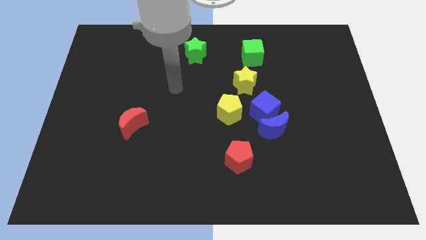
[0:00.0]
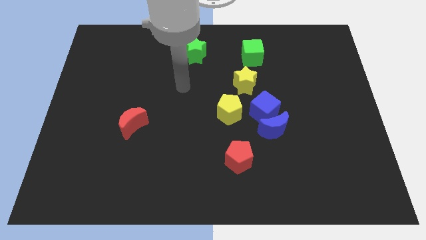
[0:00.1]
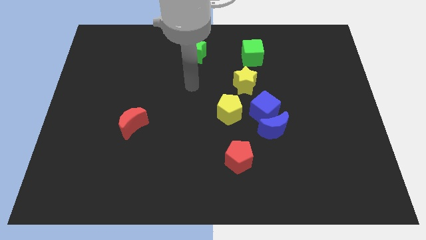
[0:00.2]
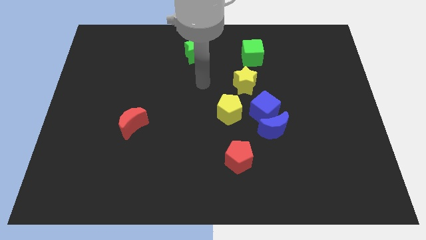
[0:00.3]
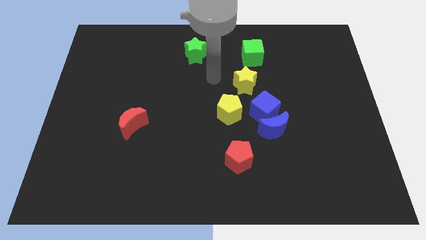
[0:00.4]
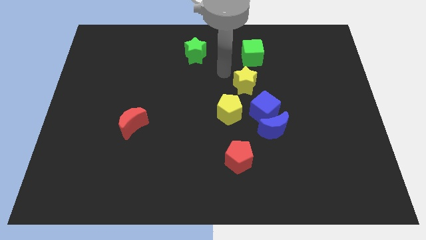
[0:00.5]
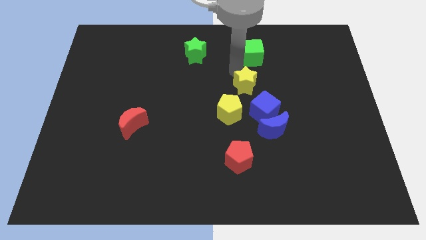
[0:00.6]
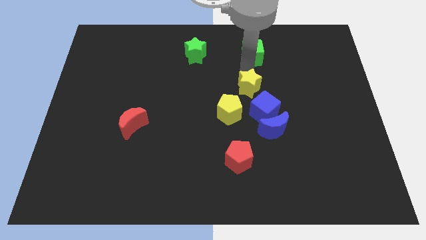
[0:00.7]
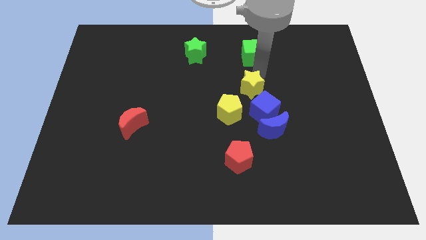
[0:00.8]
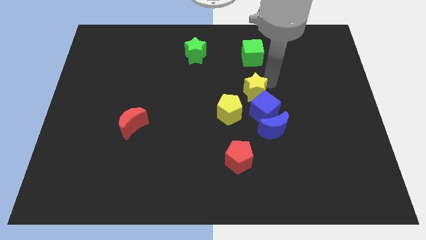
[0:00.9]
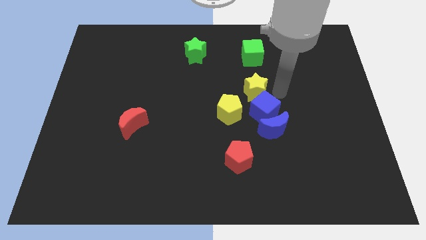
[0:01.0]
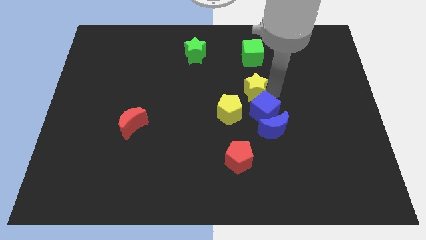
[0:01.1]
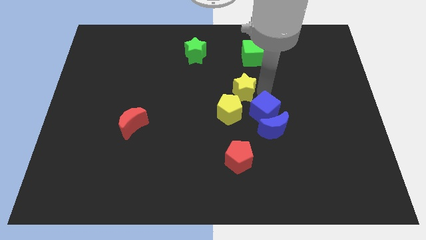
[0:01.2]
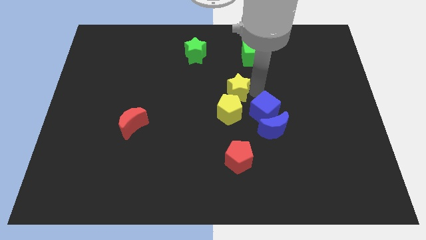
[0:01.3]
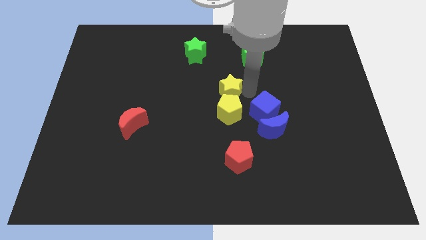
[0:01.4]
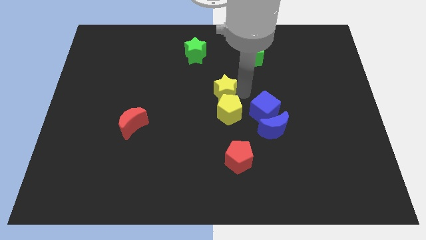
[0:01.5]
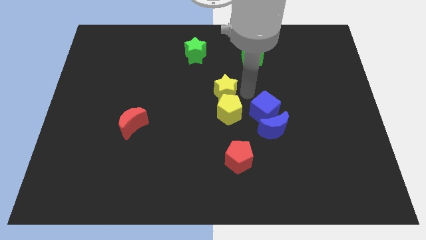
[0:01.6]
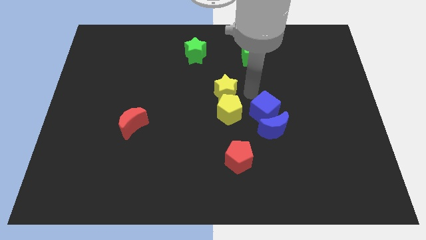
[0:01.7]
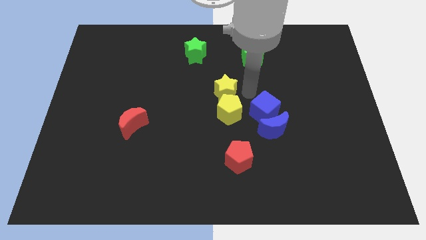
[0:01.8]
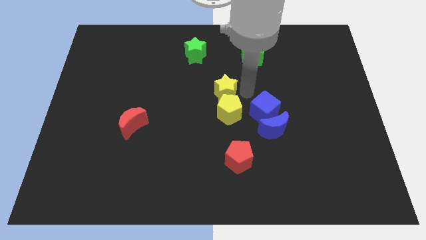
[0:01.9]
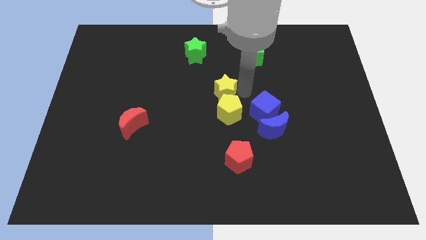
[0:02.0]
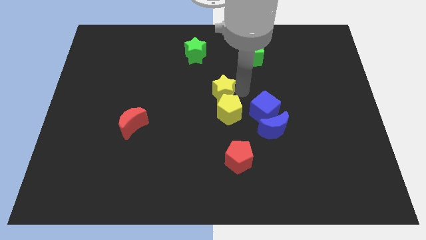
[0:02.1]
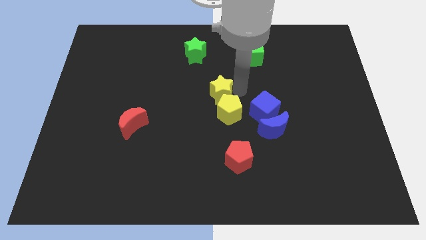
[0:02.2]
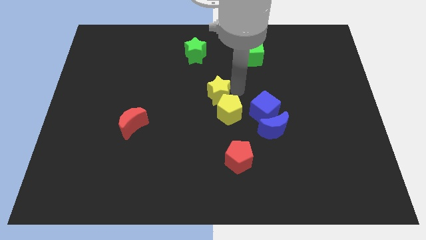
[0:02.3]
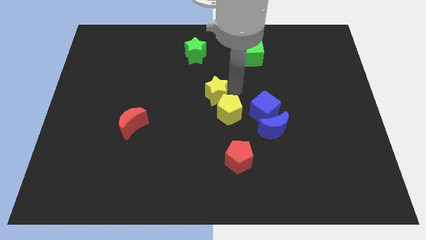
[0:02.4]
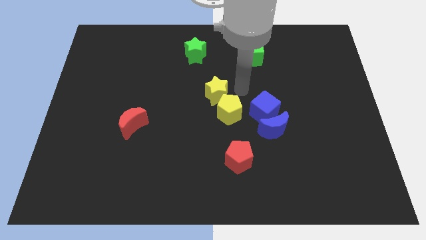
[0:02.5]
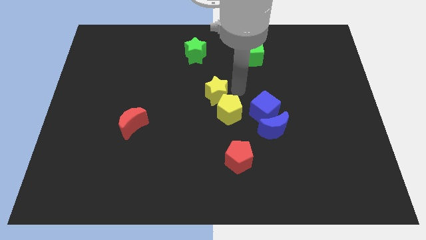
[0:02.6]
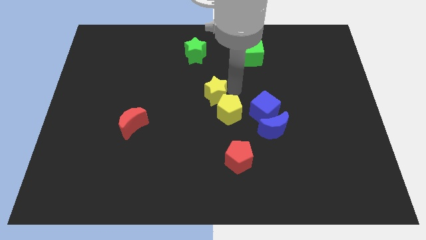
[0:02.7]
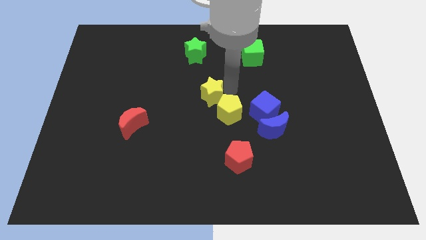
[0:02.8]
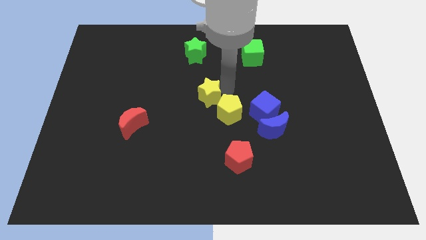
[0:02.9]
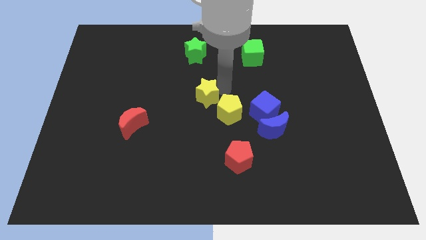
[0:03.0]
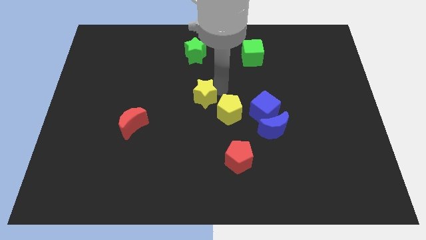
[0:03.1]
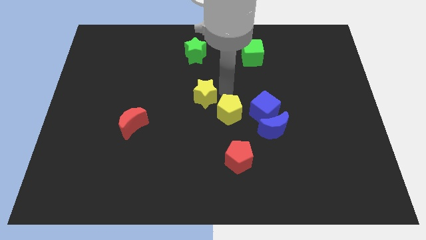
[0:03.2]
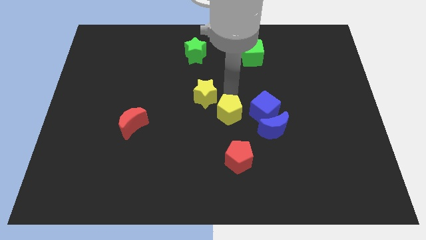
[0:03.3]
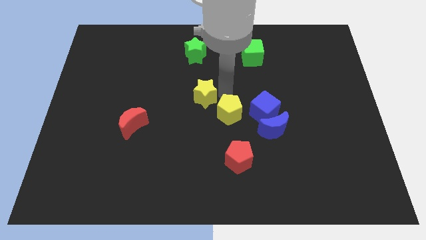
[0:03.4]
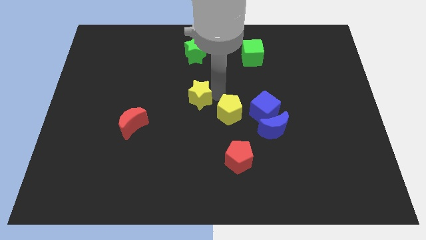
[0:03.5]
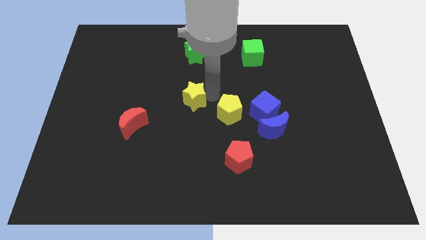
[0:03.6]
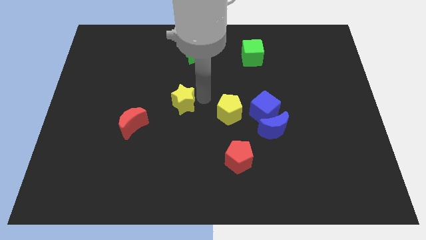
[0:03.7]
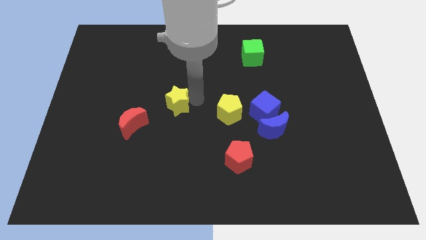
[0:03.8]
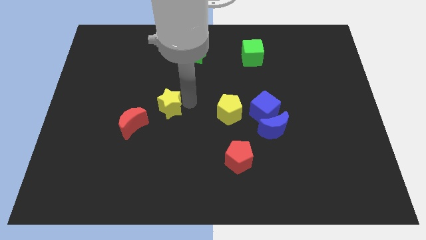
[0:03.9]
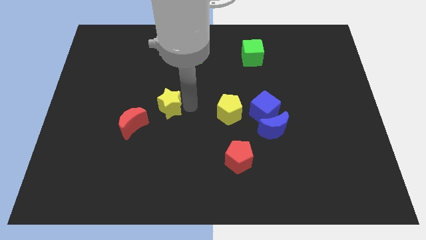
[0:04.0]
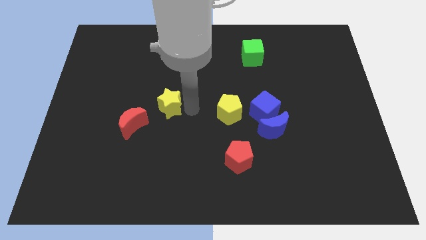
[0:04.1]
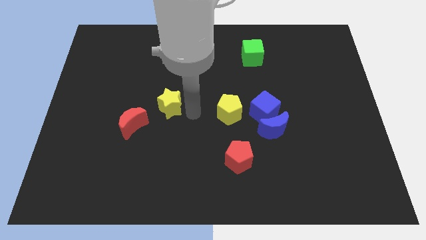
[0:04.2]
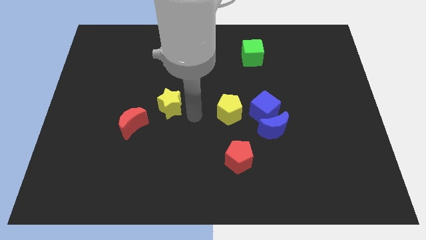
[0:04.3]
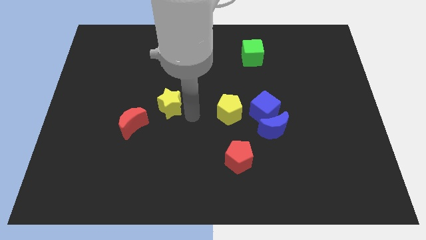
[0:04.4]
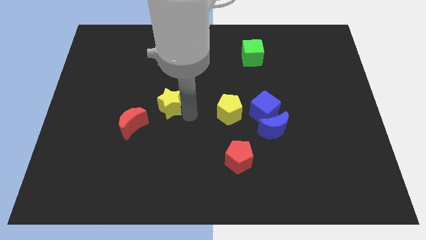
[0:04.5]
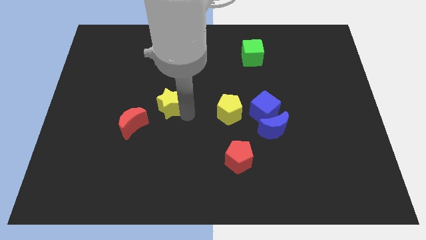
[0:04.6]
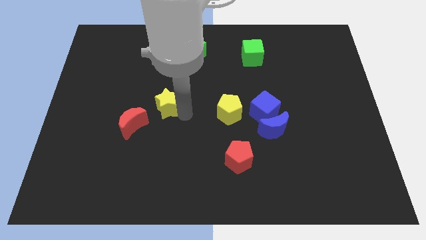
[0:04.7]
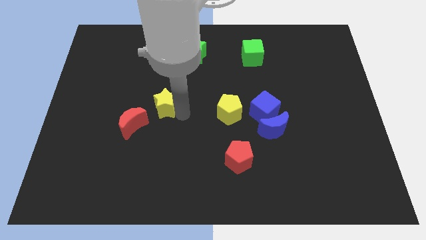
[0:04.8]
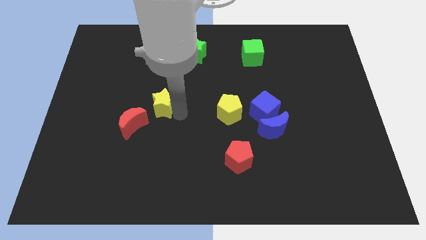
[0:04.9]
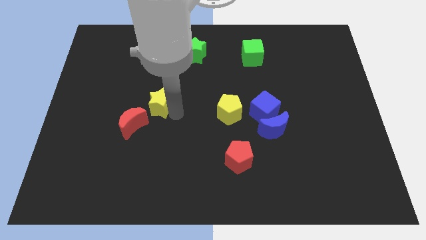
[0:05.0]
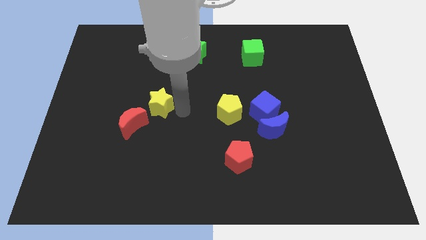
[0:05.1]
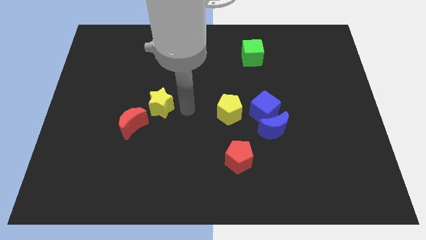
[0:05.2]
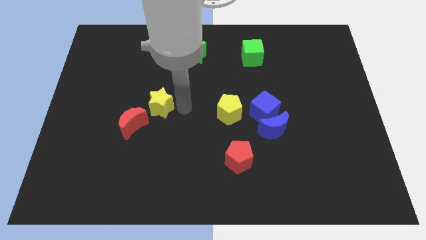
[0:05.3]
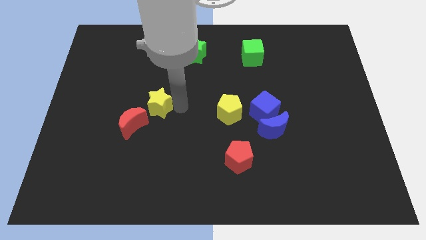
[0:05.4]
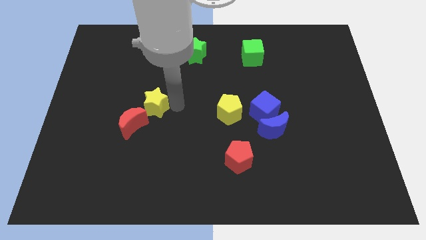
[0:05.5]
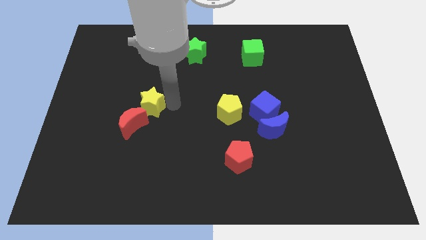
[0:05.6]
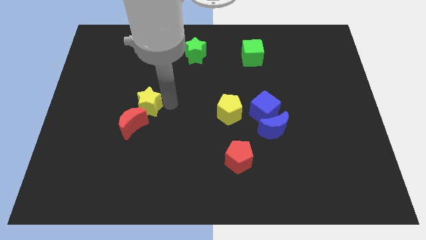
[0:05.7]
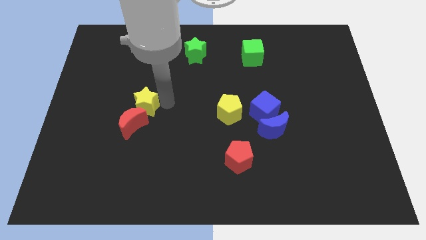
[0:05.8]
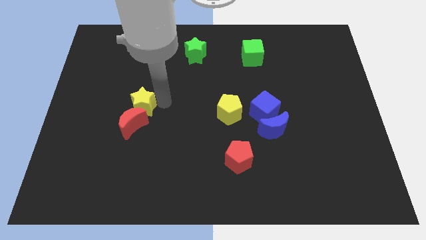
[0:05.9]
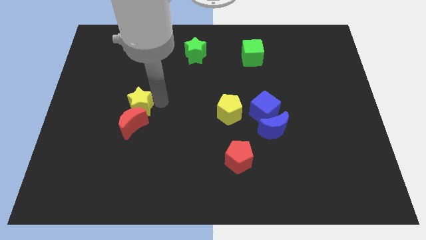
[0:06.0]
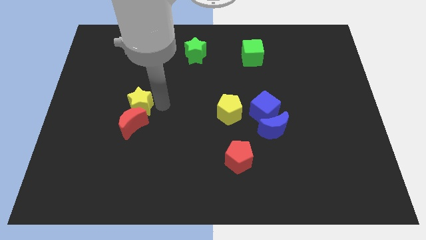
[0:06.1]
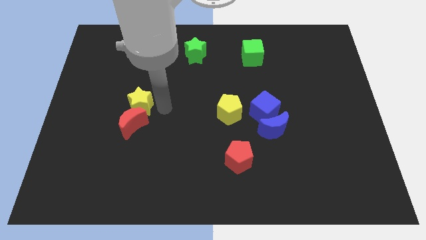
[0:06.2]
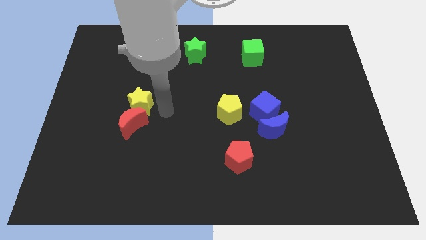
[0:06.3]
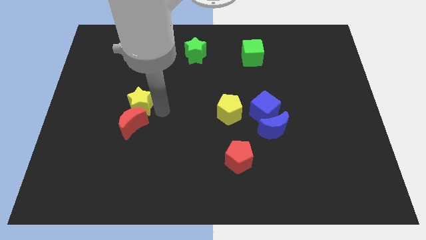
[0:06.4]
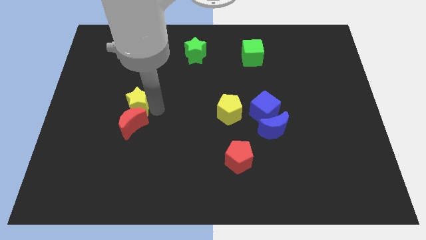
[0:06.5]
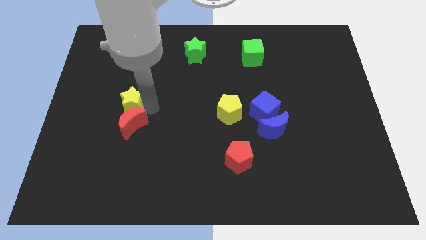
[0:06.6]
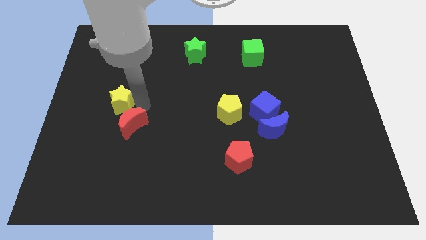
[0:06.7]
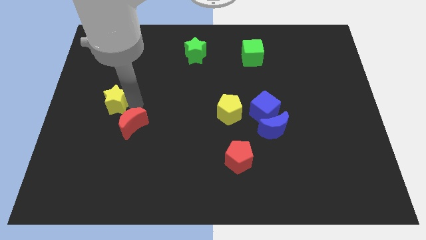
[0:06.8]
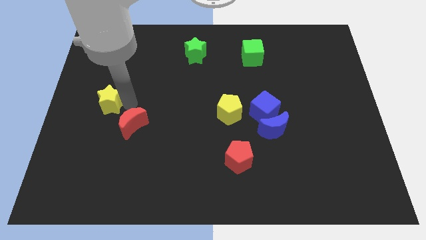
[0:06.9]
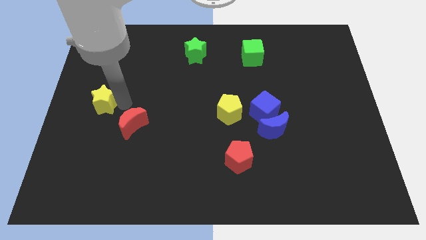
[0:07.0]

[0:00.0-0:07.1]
move the yellow star to the center left
